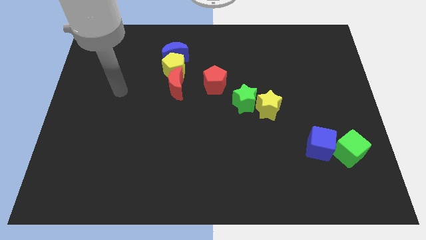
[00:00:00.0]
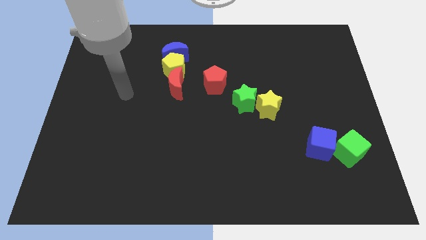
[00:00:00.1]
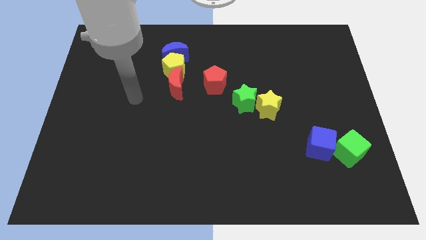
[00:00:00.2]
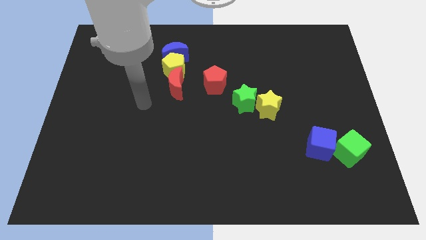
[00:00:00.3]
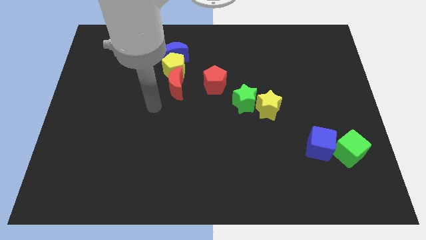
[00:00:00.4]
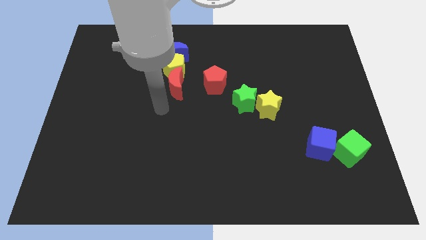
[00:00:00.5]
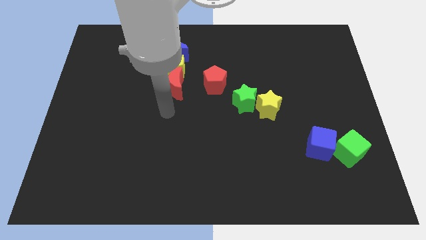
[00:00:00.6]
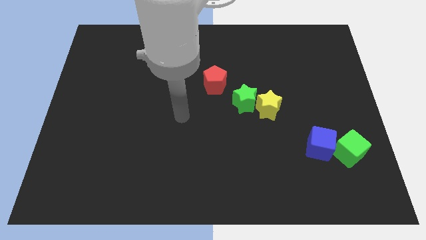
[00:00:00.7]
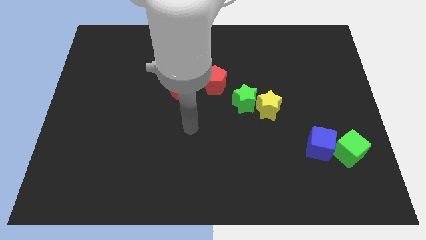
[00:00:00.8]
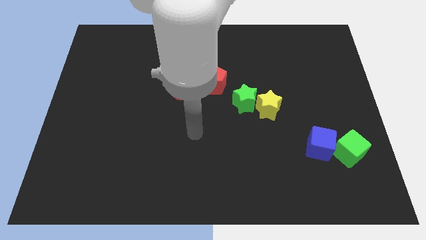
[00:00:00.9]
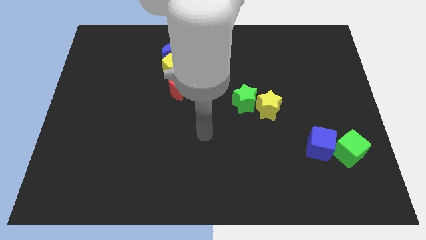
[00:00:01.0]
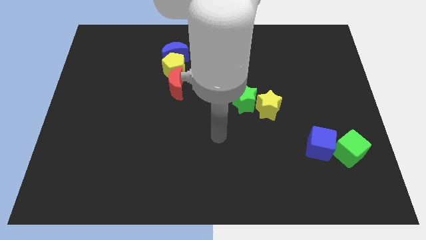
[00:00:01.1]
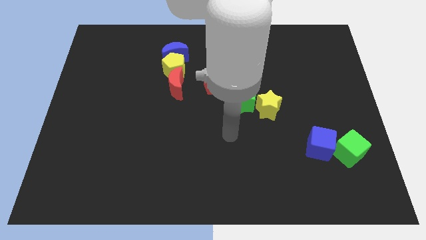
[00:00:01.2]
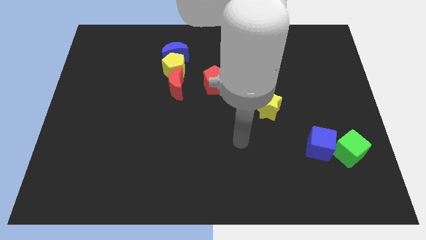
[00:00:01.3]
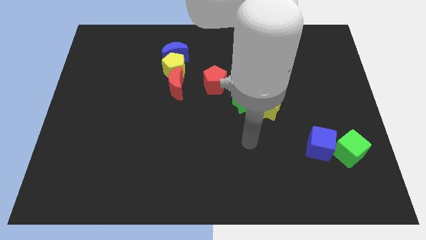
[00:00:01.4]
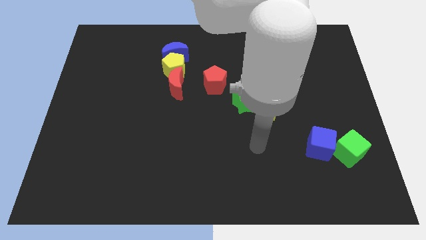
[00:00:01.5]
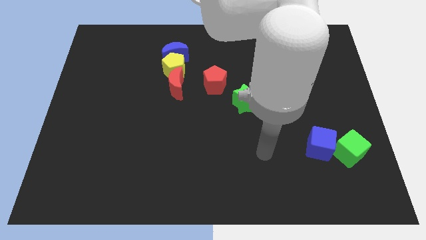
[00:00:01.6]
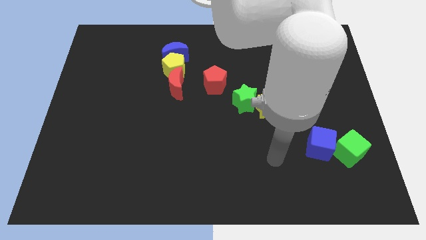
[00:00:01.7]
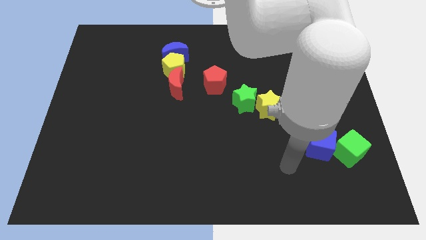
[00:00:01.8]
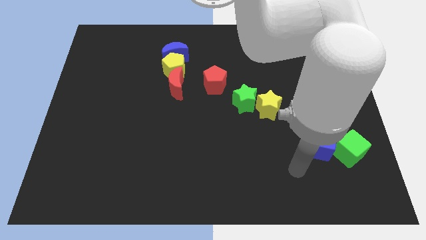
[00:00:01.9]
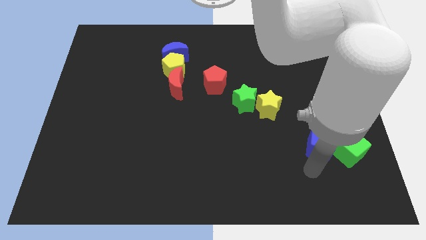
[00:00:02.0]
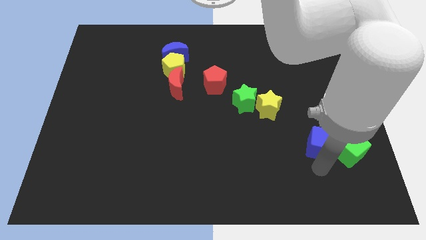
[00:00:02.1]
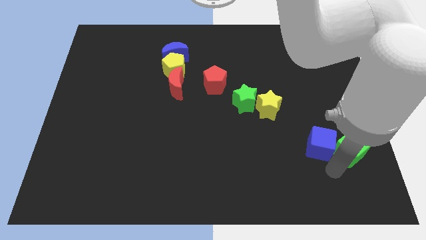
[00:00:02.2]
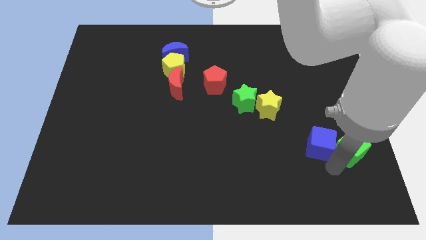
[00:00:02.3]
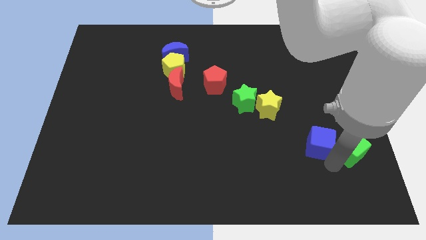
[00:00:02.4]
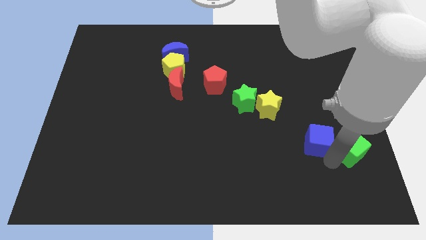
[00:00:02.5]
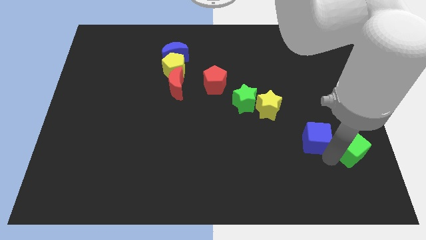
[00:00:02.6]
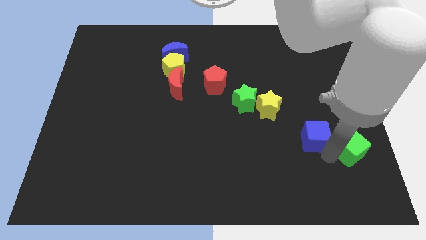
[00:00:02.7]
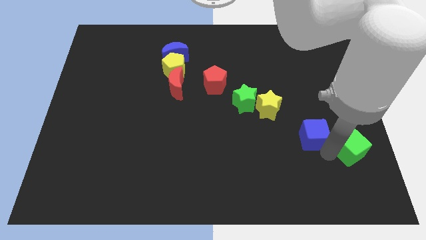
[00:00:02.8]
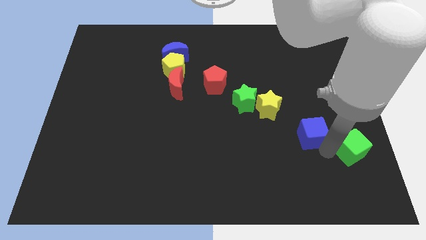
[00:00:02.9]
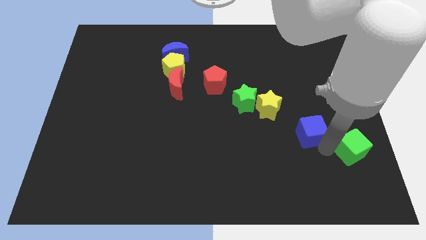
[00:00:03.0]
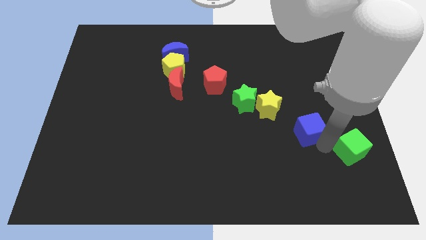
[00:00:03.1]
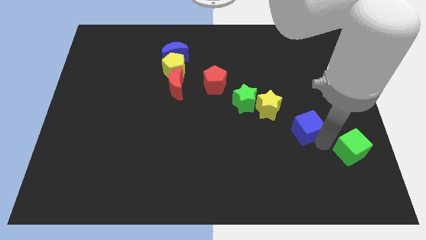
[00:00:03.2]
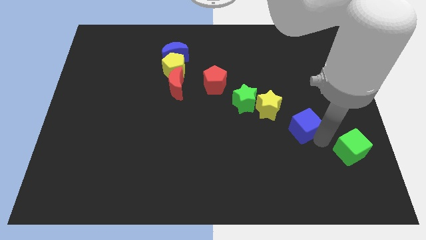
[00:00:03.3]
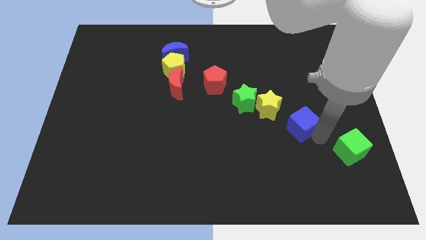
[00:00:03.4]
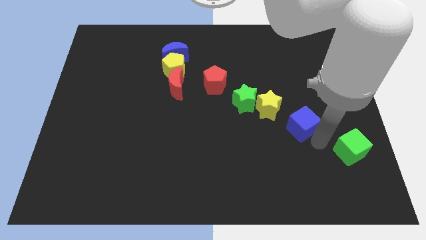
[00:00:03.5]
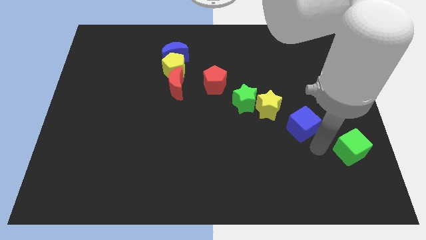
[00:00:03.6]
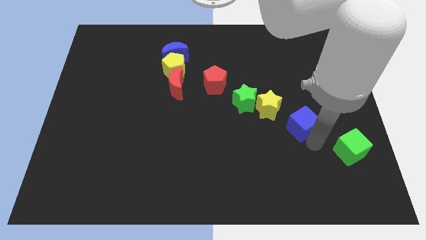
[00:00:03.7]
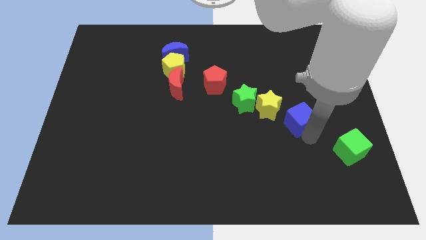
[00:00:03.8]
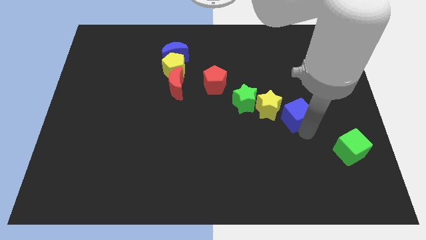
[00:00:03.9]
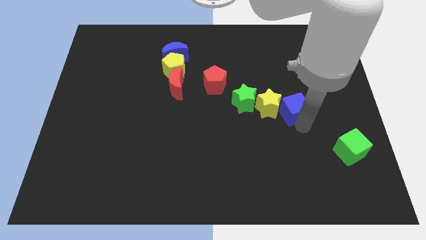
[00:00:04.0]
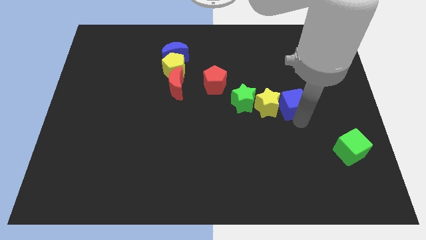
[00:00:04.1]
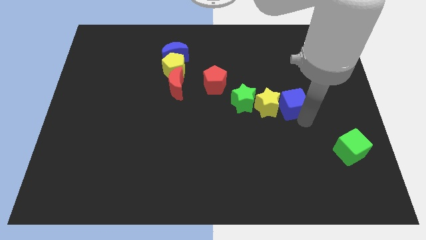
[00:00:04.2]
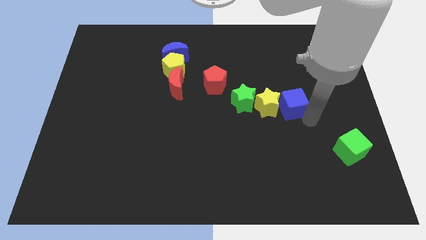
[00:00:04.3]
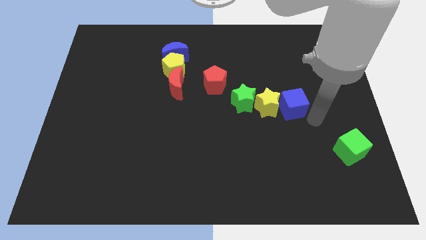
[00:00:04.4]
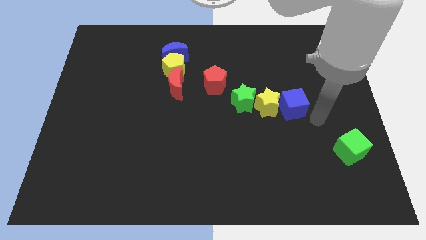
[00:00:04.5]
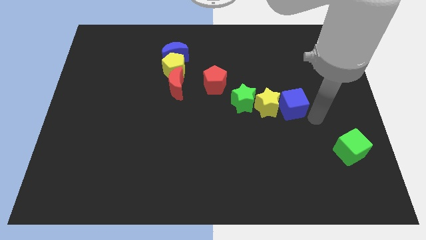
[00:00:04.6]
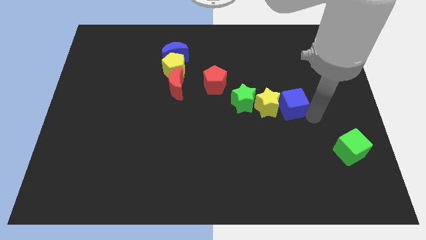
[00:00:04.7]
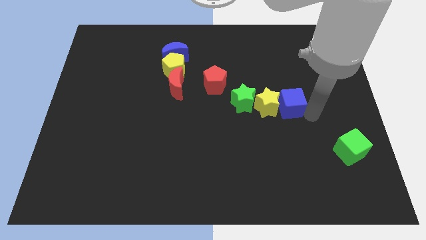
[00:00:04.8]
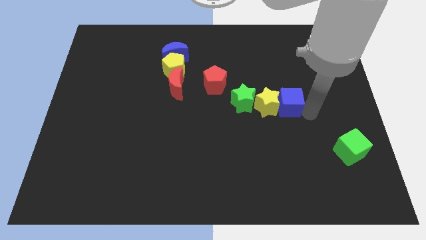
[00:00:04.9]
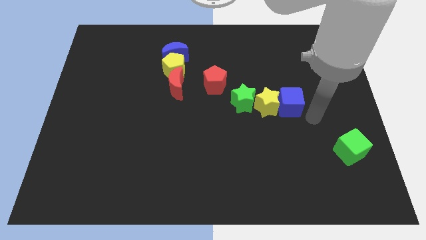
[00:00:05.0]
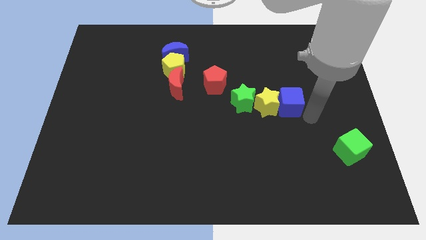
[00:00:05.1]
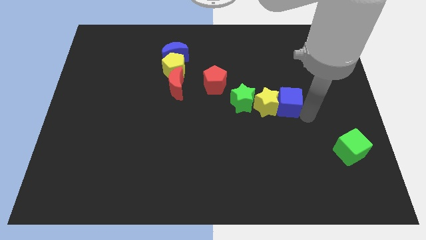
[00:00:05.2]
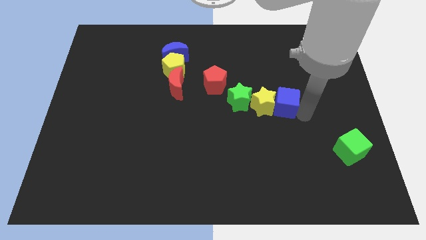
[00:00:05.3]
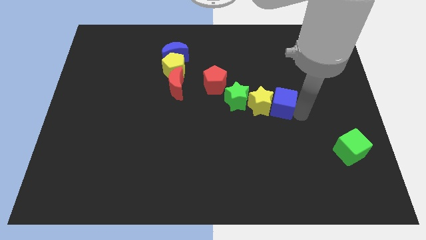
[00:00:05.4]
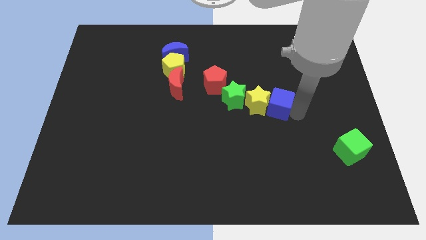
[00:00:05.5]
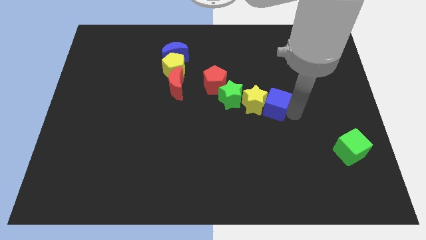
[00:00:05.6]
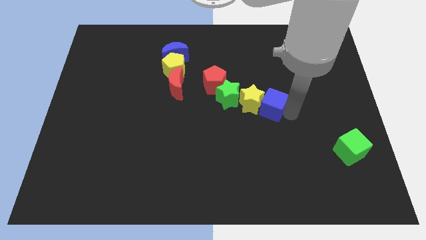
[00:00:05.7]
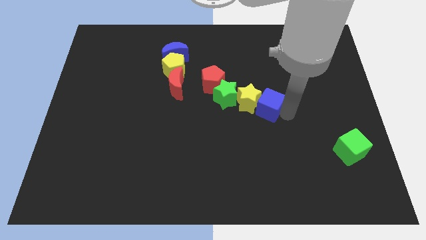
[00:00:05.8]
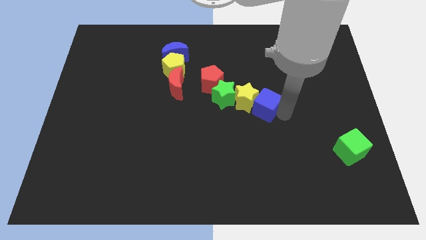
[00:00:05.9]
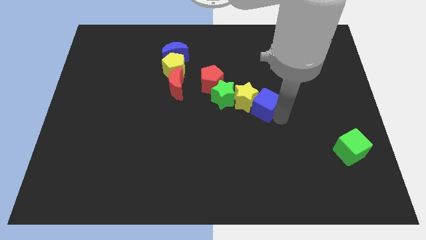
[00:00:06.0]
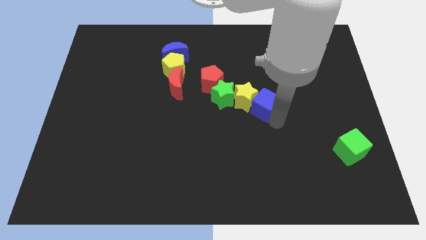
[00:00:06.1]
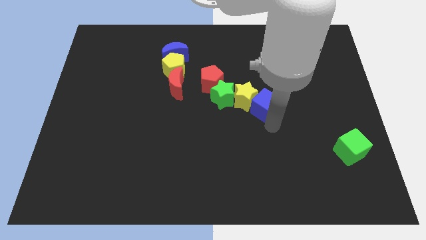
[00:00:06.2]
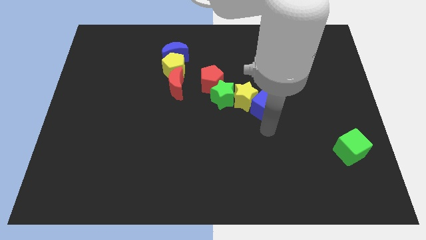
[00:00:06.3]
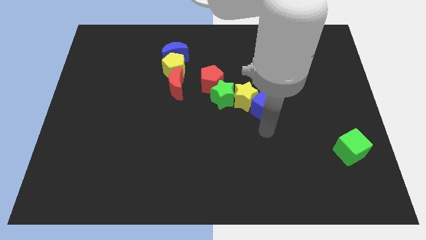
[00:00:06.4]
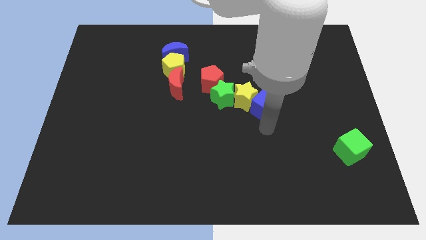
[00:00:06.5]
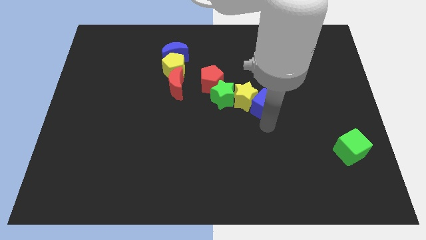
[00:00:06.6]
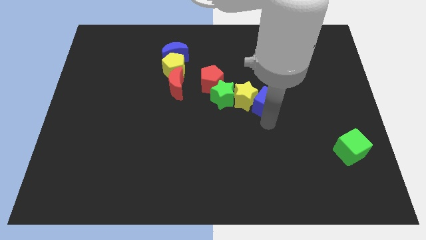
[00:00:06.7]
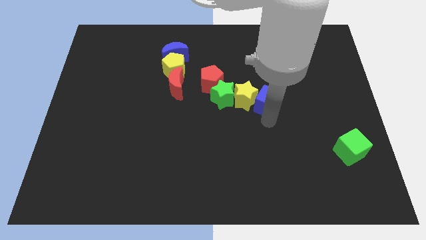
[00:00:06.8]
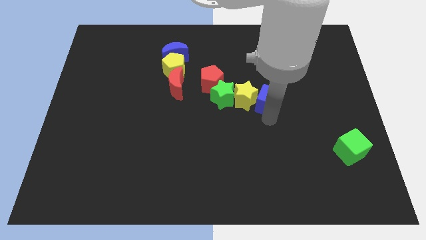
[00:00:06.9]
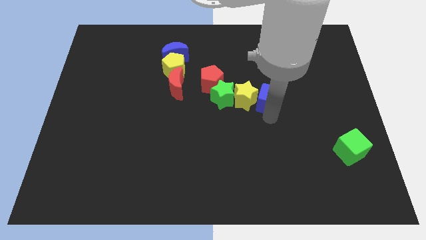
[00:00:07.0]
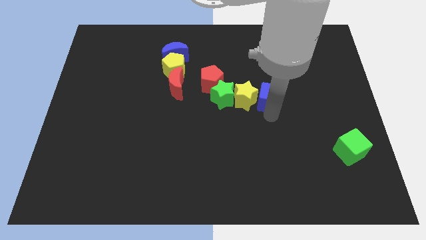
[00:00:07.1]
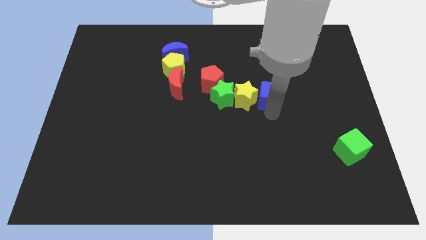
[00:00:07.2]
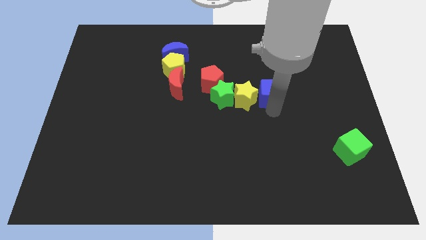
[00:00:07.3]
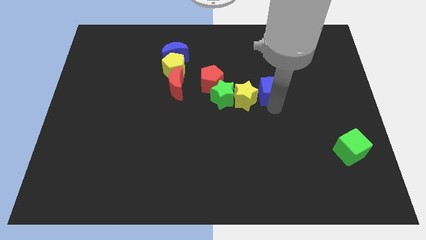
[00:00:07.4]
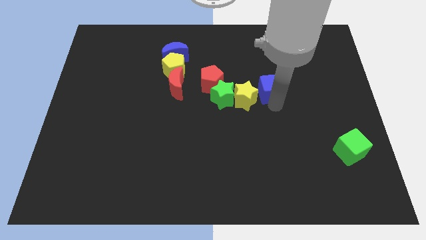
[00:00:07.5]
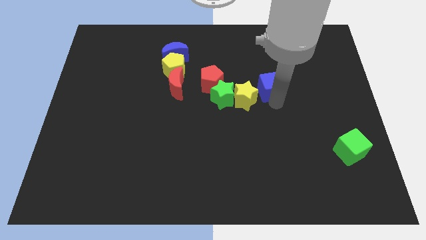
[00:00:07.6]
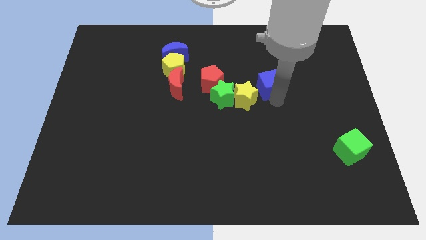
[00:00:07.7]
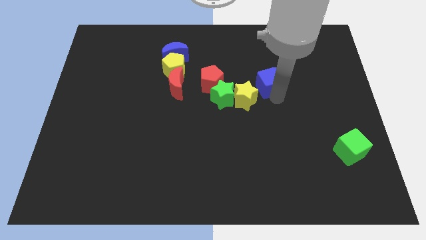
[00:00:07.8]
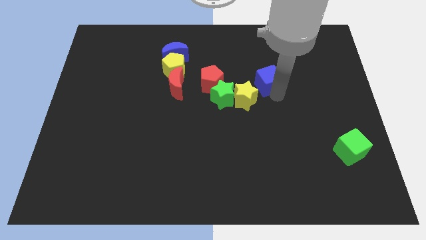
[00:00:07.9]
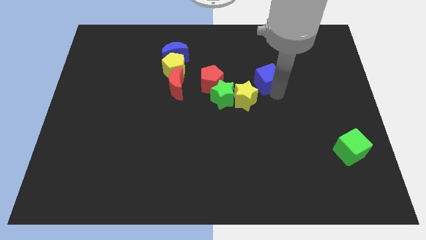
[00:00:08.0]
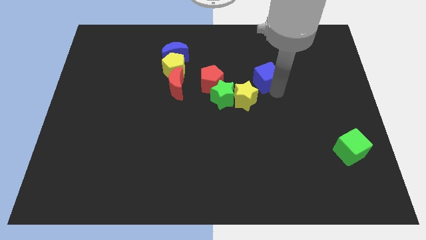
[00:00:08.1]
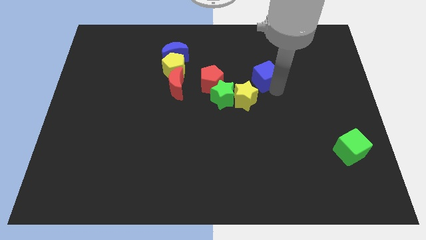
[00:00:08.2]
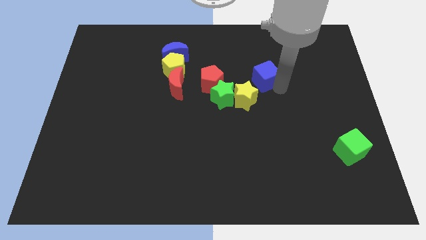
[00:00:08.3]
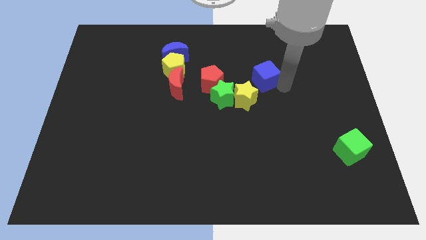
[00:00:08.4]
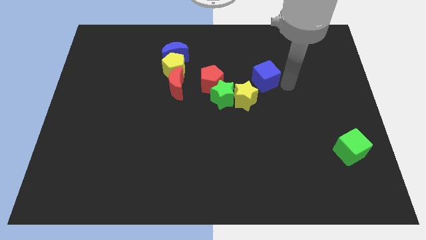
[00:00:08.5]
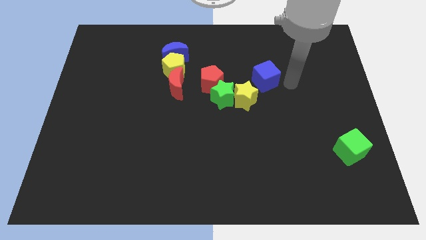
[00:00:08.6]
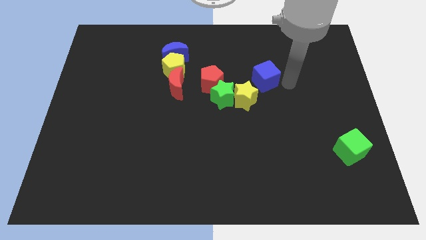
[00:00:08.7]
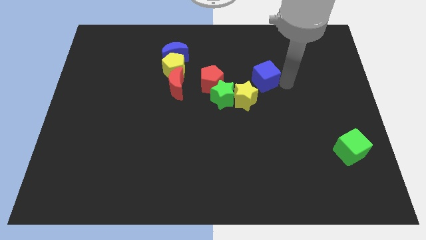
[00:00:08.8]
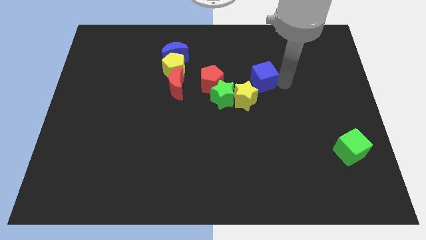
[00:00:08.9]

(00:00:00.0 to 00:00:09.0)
push the blue cube diagonally up and left
